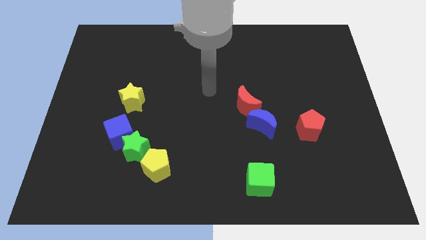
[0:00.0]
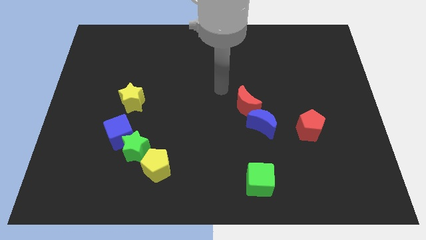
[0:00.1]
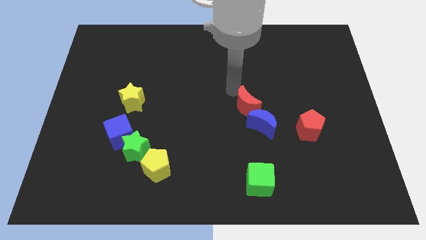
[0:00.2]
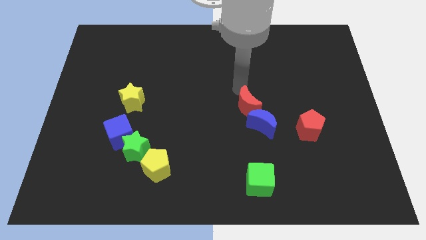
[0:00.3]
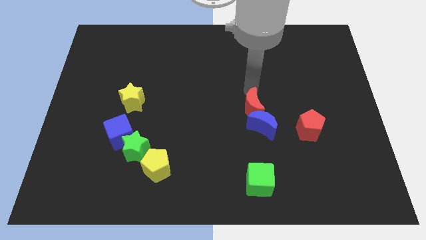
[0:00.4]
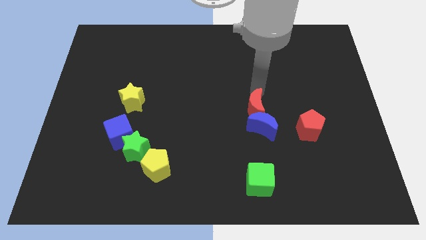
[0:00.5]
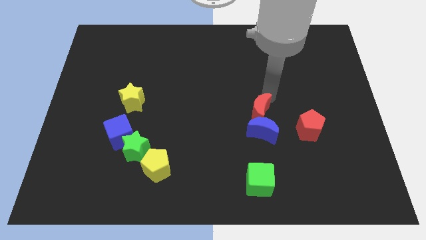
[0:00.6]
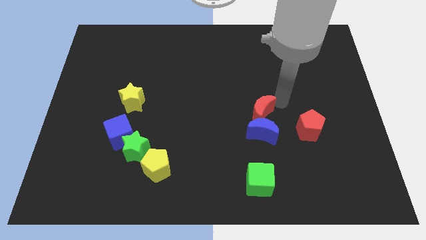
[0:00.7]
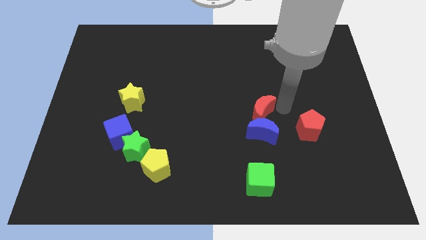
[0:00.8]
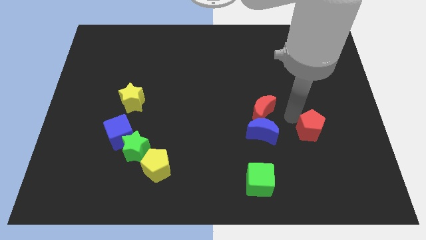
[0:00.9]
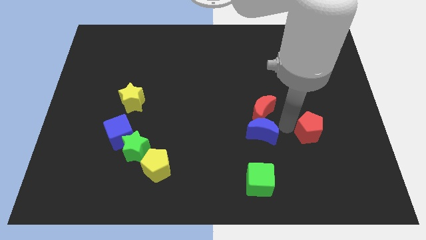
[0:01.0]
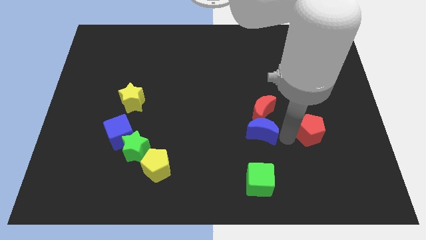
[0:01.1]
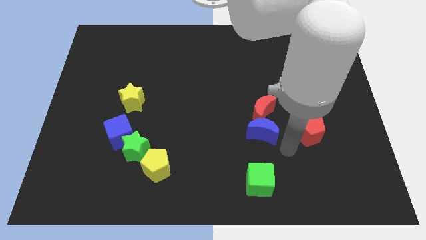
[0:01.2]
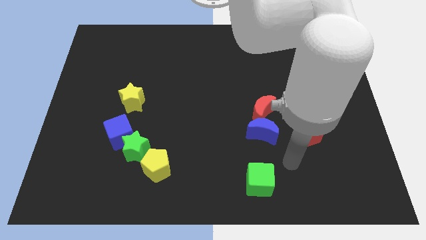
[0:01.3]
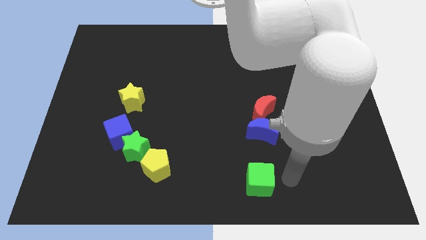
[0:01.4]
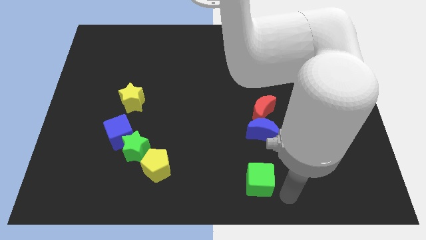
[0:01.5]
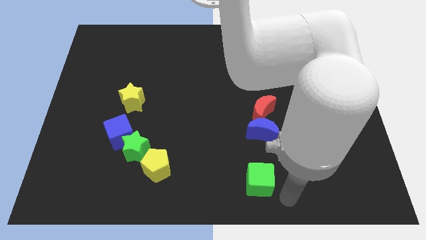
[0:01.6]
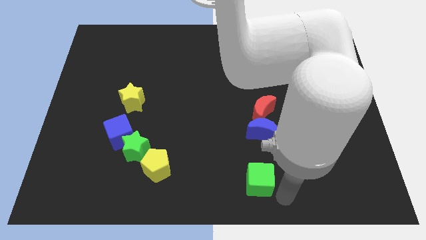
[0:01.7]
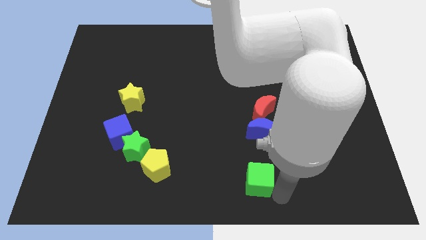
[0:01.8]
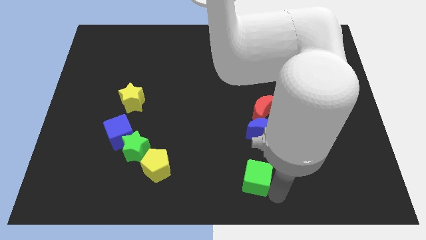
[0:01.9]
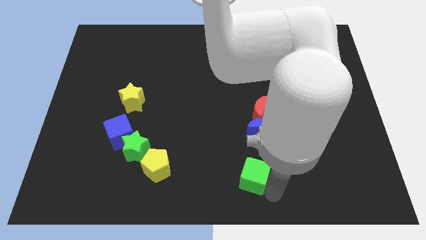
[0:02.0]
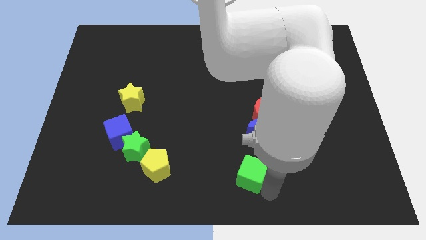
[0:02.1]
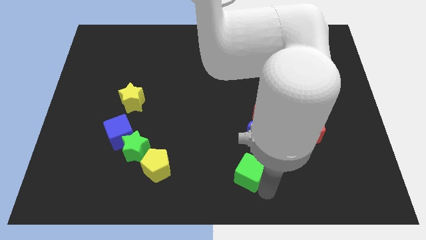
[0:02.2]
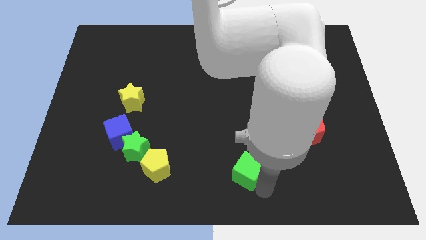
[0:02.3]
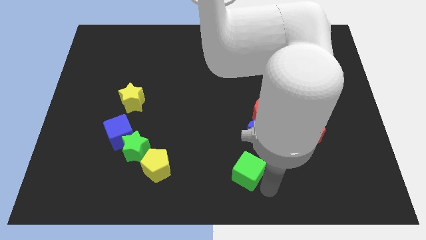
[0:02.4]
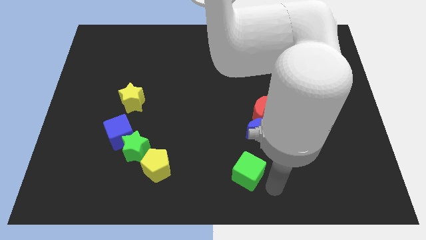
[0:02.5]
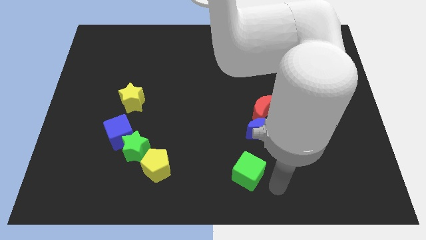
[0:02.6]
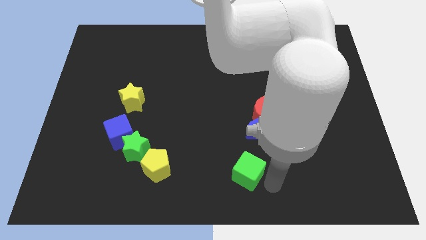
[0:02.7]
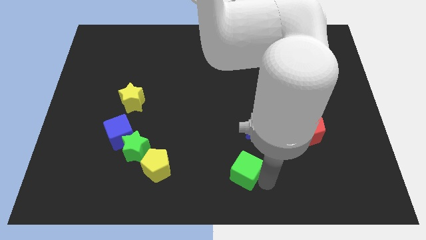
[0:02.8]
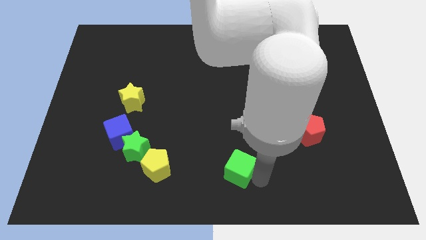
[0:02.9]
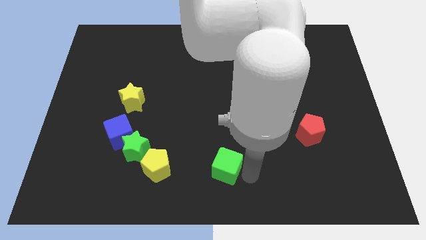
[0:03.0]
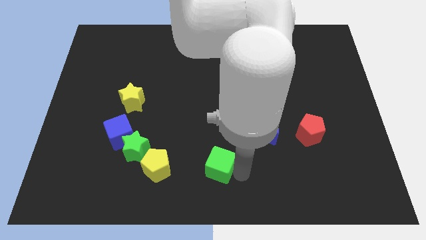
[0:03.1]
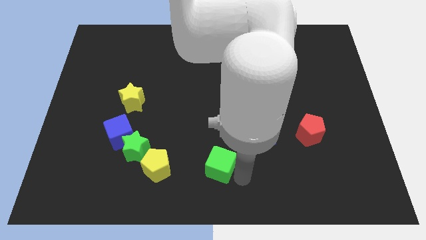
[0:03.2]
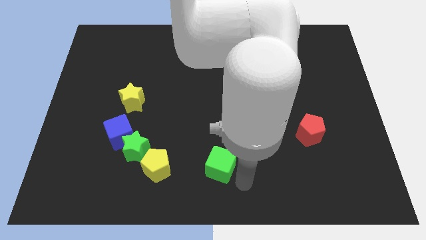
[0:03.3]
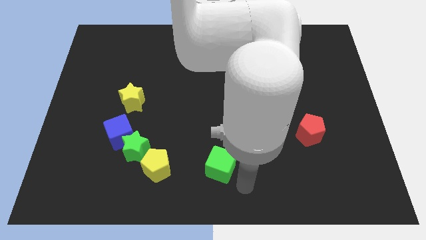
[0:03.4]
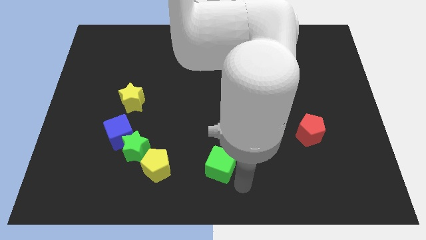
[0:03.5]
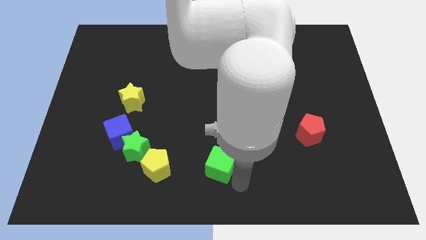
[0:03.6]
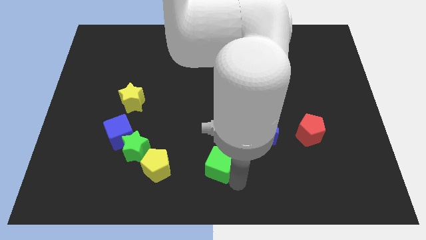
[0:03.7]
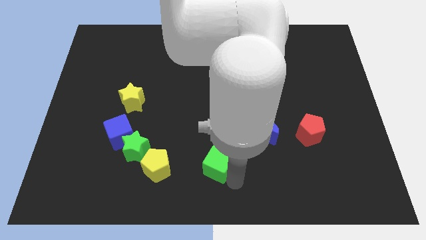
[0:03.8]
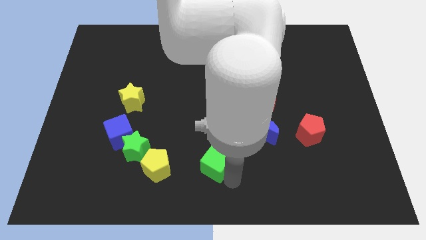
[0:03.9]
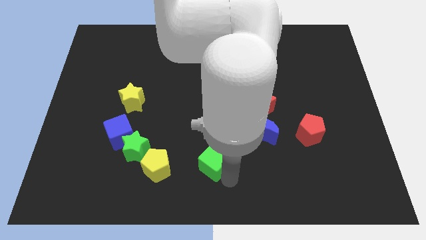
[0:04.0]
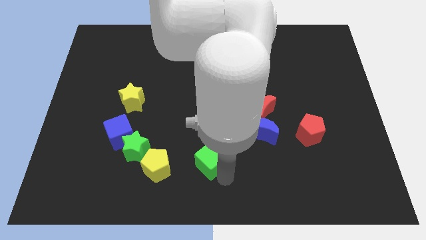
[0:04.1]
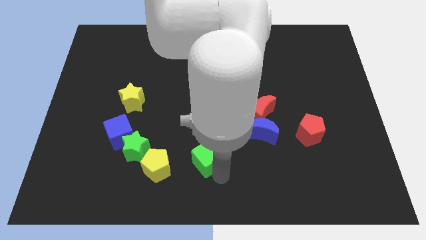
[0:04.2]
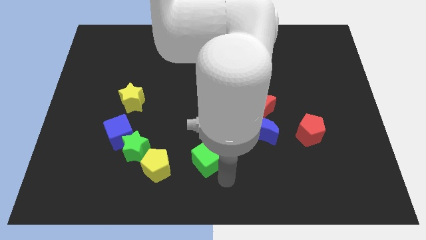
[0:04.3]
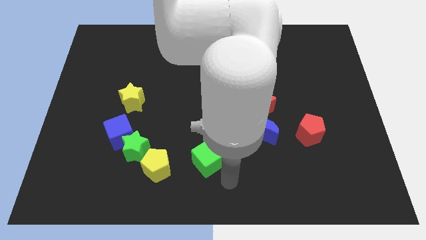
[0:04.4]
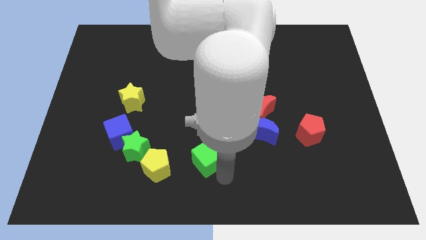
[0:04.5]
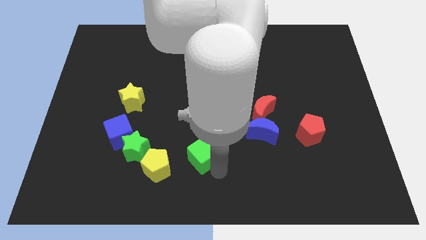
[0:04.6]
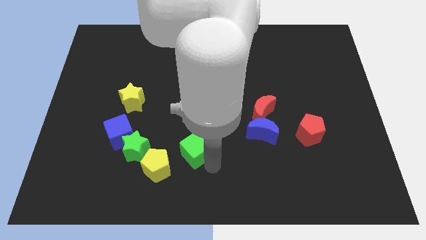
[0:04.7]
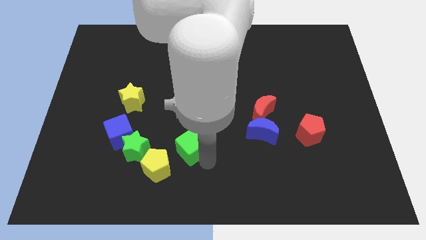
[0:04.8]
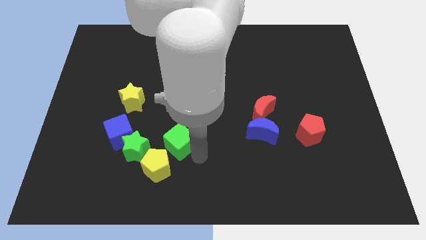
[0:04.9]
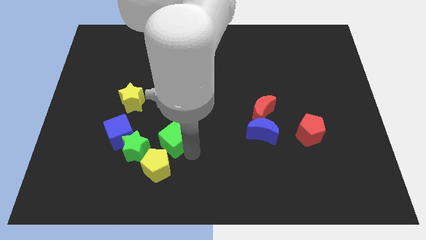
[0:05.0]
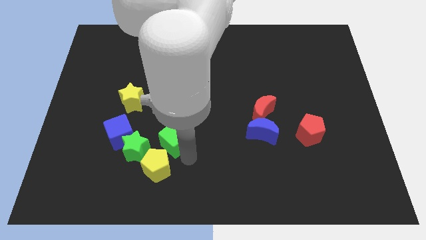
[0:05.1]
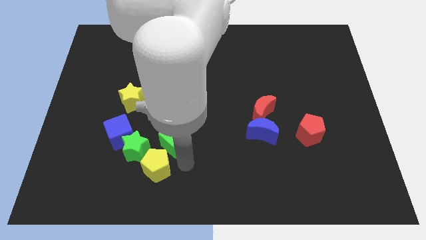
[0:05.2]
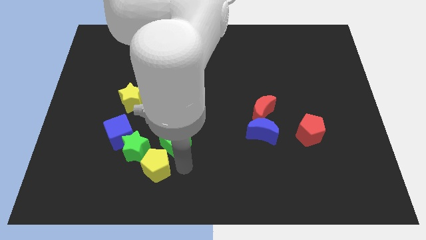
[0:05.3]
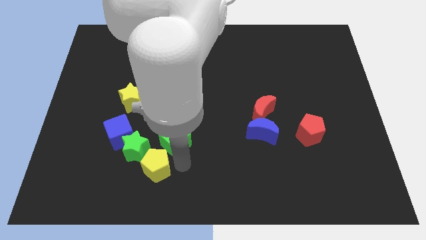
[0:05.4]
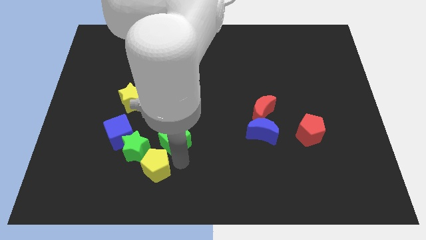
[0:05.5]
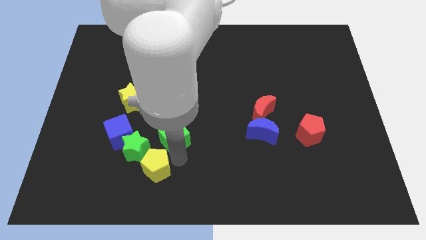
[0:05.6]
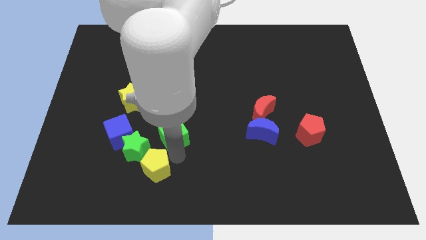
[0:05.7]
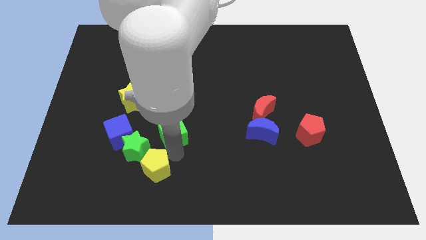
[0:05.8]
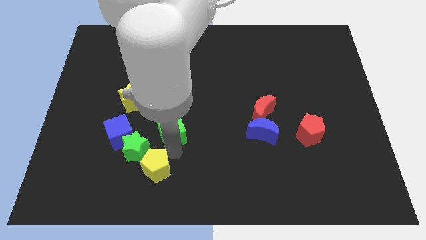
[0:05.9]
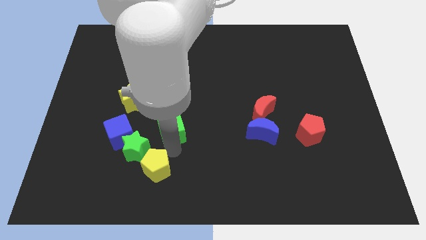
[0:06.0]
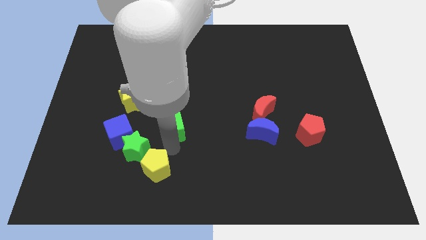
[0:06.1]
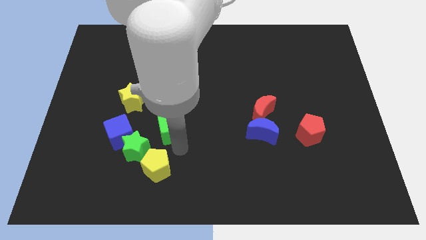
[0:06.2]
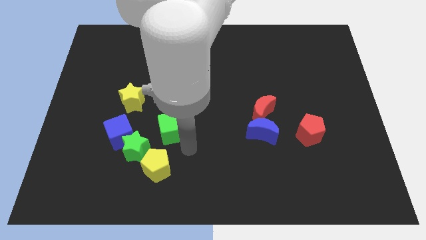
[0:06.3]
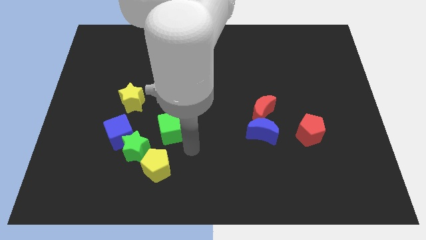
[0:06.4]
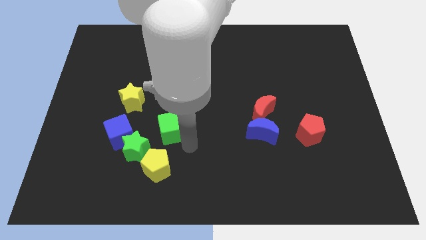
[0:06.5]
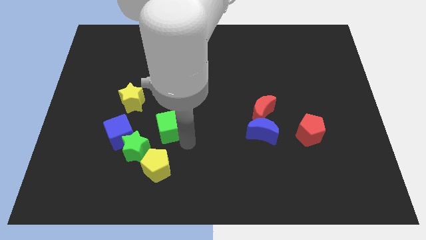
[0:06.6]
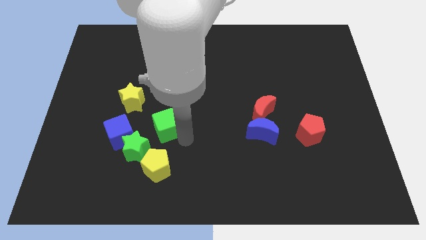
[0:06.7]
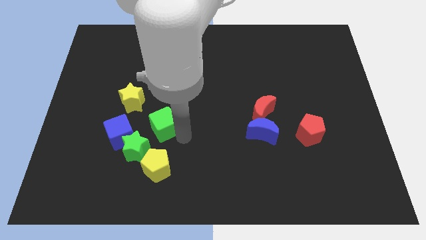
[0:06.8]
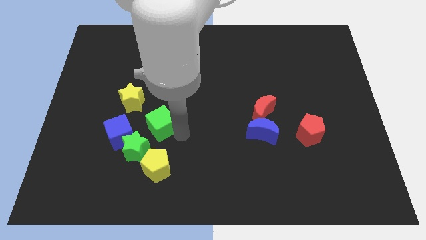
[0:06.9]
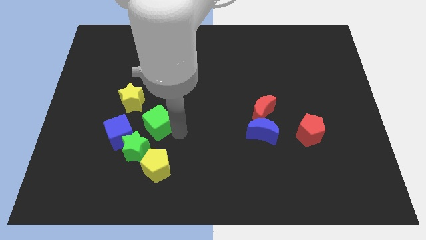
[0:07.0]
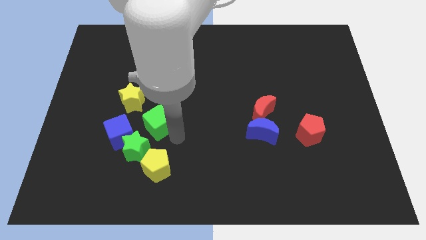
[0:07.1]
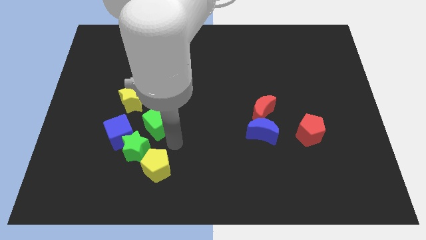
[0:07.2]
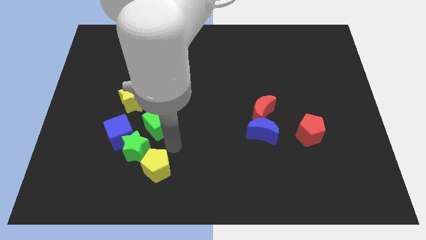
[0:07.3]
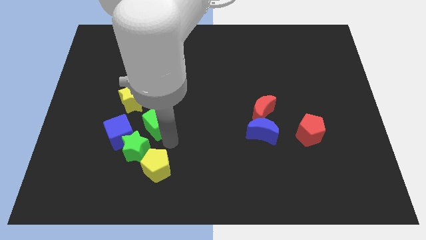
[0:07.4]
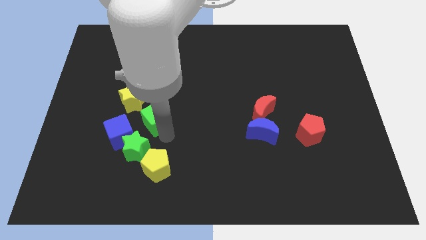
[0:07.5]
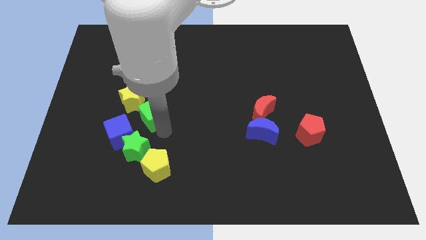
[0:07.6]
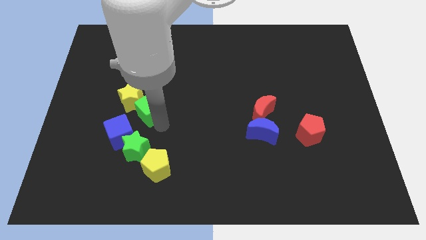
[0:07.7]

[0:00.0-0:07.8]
put the green cube next to the yellow star
